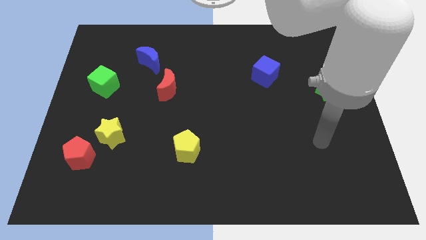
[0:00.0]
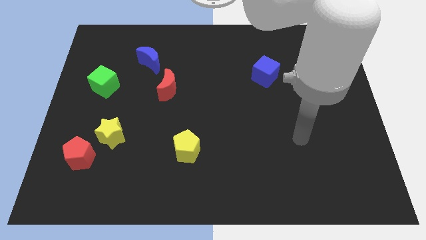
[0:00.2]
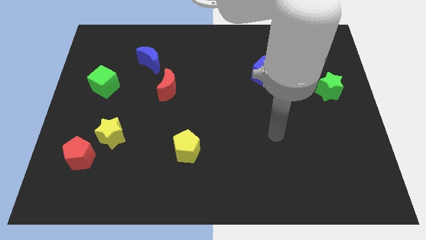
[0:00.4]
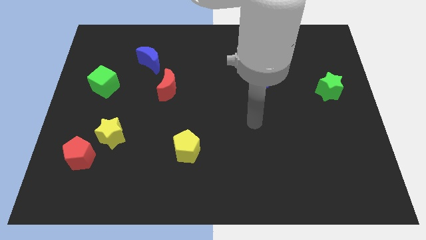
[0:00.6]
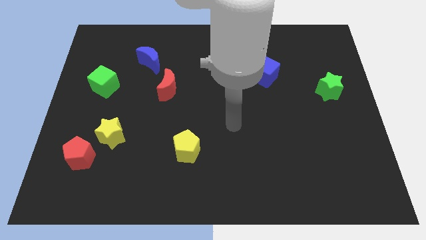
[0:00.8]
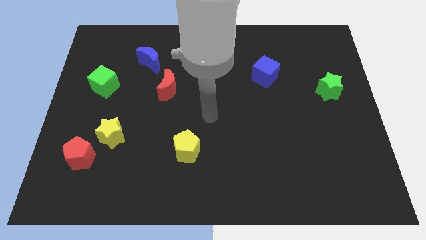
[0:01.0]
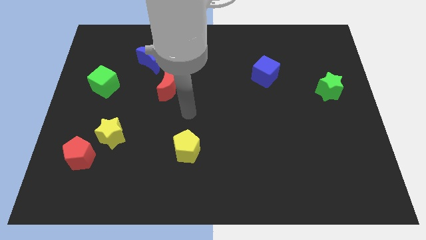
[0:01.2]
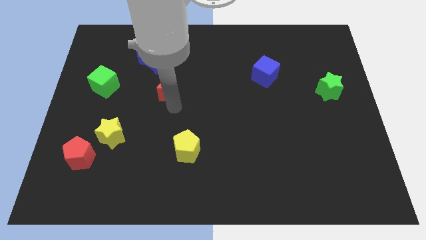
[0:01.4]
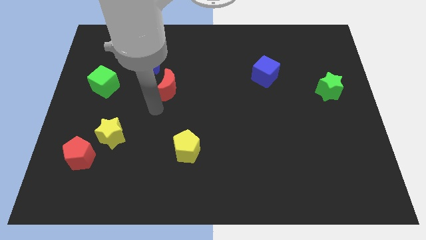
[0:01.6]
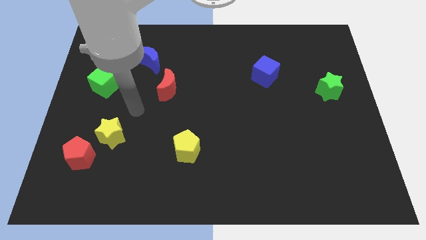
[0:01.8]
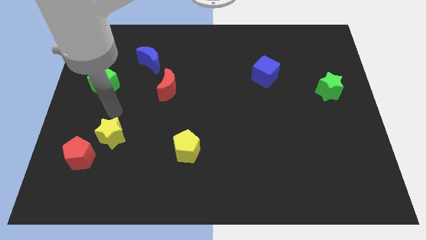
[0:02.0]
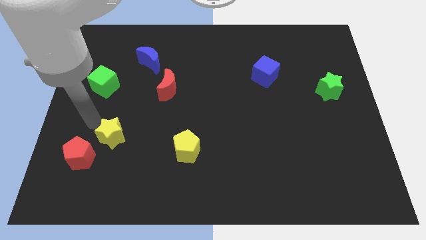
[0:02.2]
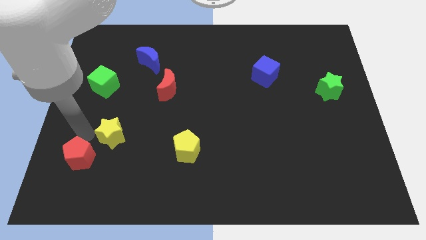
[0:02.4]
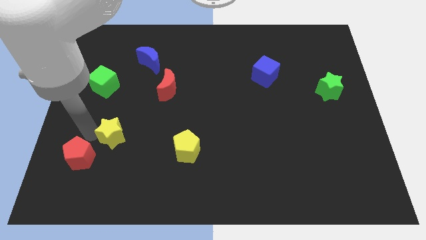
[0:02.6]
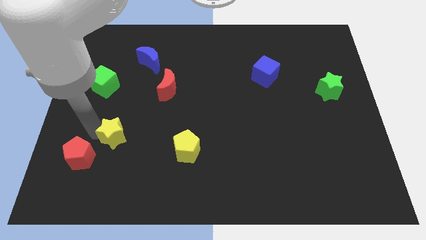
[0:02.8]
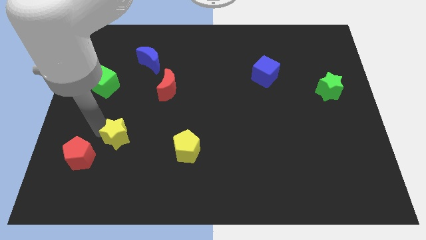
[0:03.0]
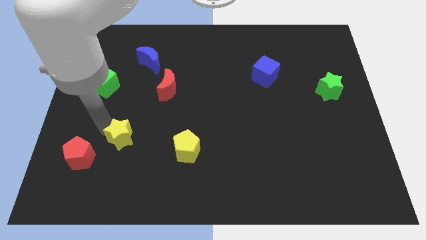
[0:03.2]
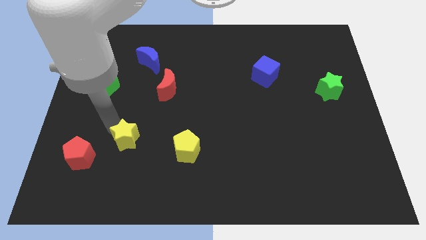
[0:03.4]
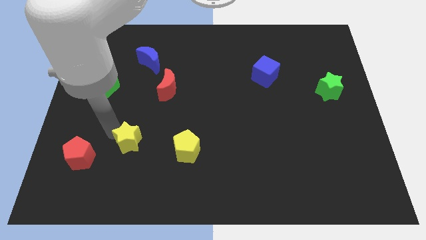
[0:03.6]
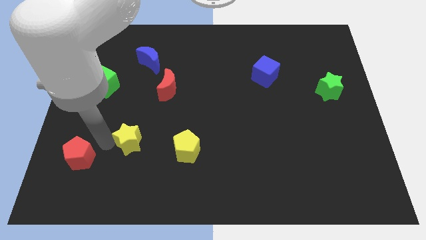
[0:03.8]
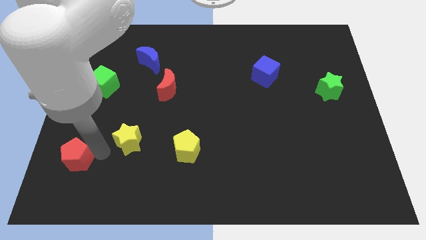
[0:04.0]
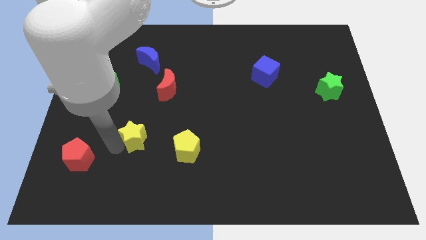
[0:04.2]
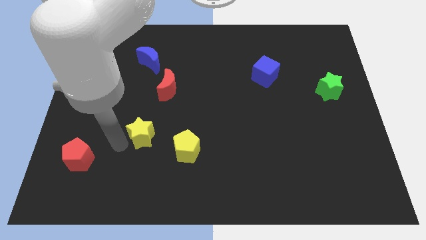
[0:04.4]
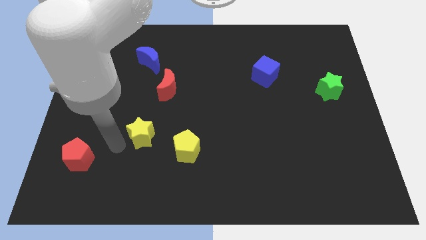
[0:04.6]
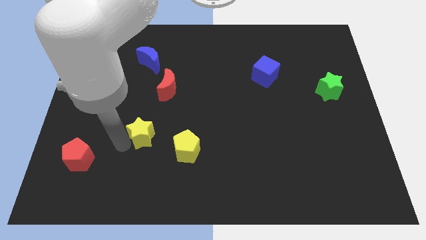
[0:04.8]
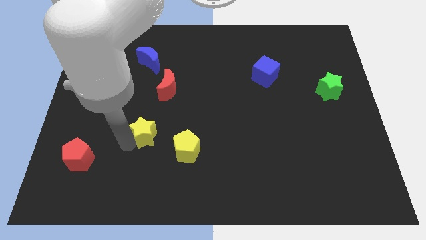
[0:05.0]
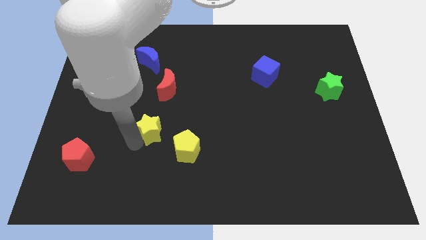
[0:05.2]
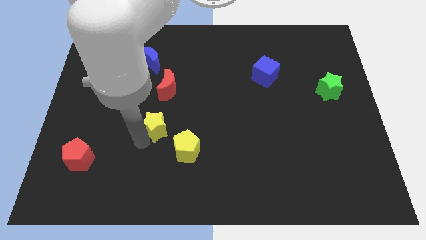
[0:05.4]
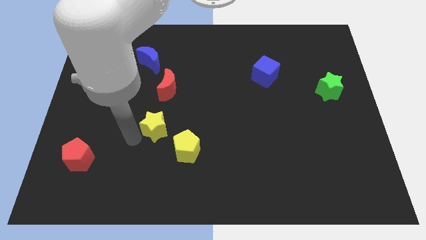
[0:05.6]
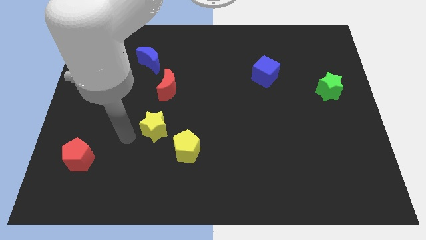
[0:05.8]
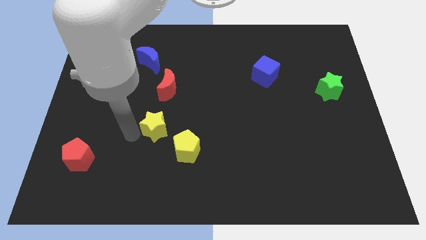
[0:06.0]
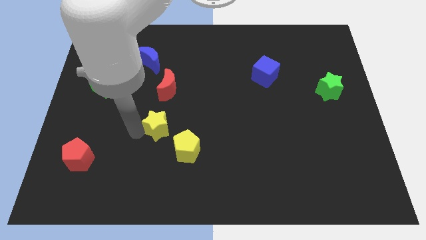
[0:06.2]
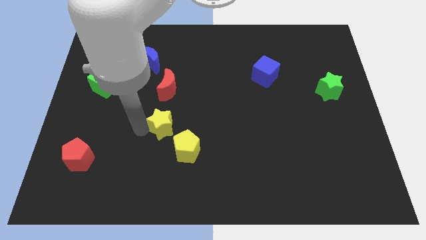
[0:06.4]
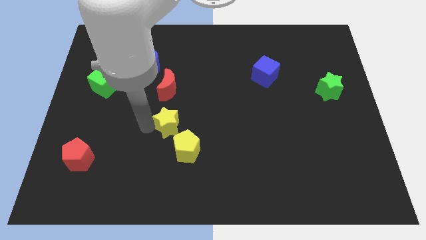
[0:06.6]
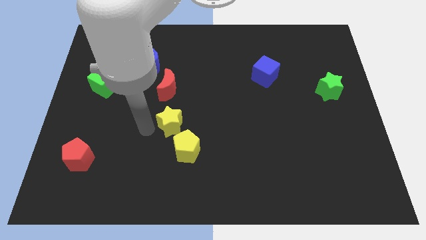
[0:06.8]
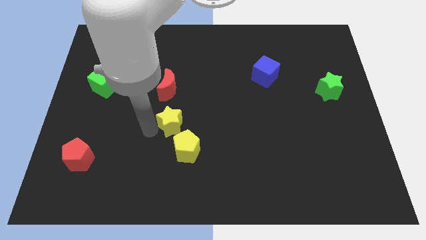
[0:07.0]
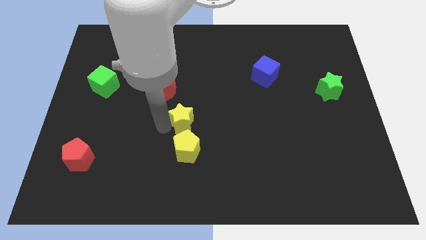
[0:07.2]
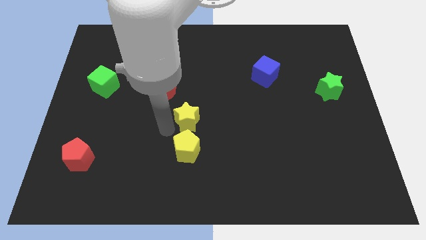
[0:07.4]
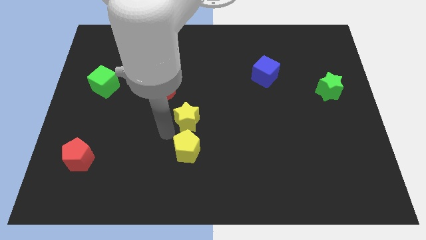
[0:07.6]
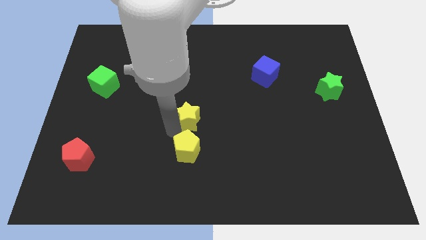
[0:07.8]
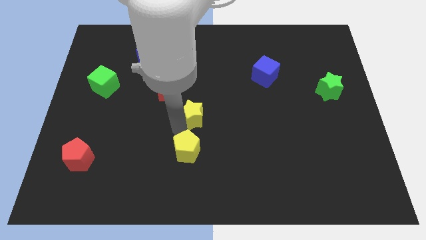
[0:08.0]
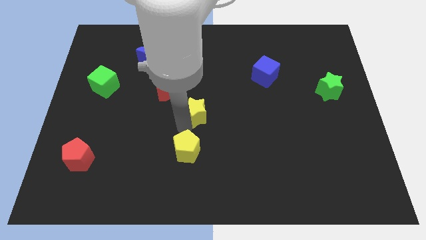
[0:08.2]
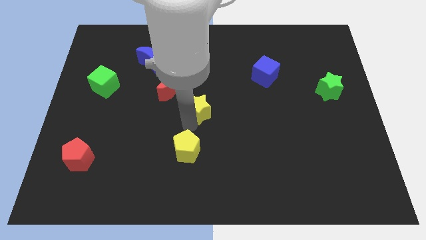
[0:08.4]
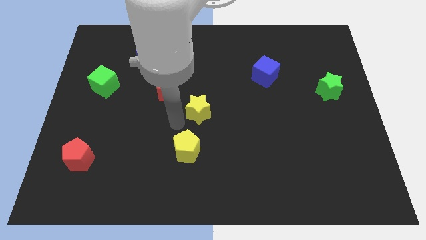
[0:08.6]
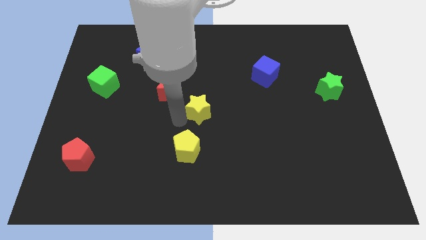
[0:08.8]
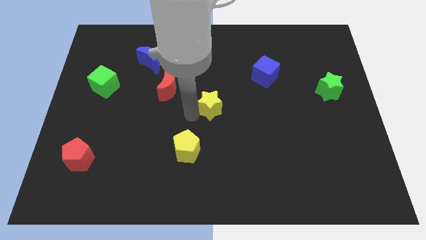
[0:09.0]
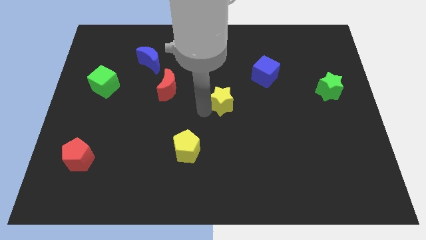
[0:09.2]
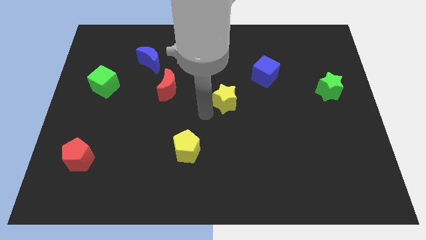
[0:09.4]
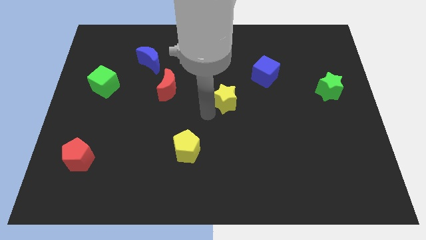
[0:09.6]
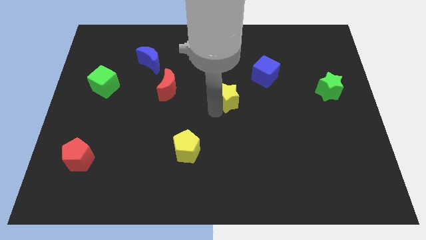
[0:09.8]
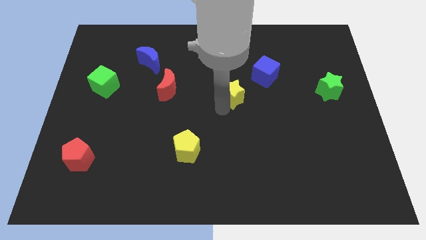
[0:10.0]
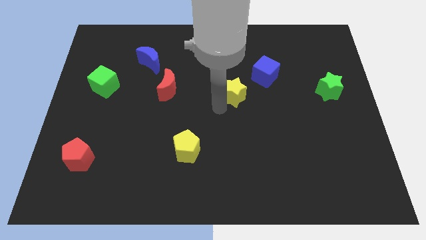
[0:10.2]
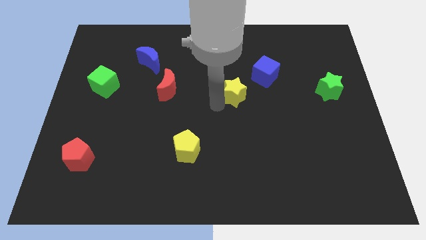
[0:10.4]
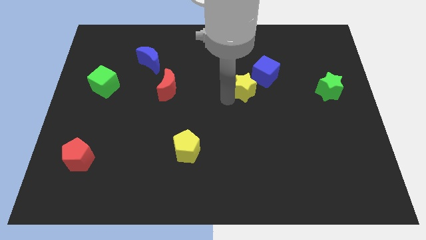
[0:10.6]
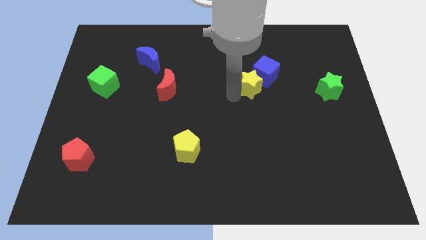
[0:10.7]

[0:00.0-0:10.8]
put the yellow star next to the blue cube

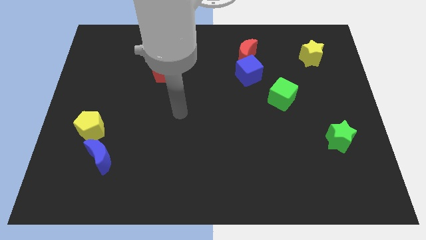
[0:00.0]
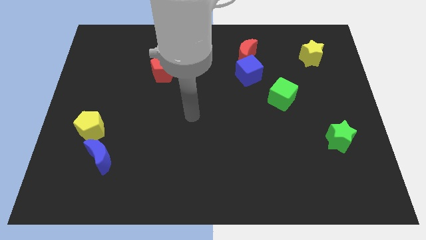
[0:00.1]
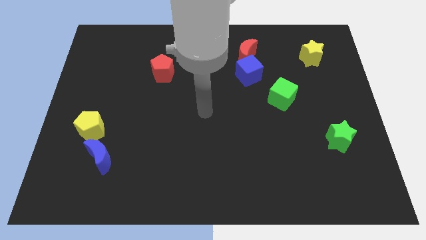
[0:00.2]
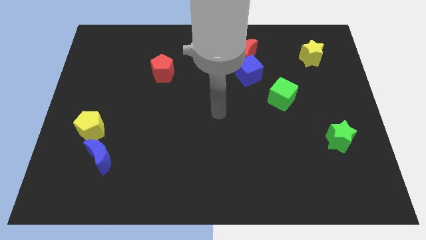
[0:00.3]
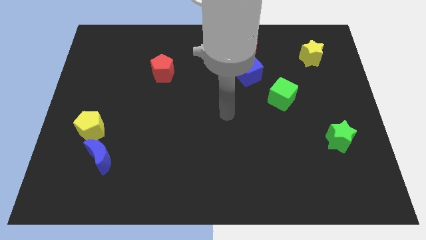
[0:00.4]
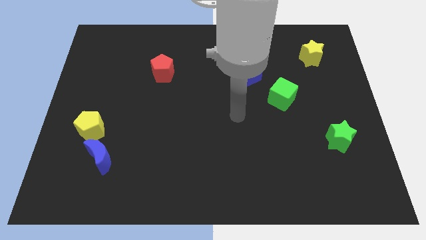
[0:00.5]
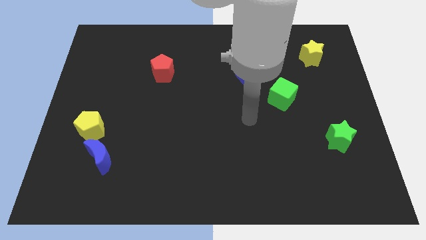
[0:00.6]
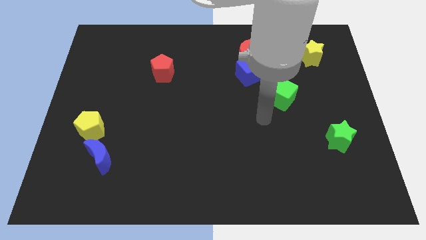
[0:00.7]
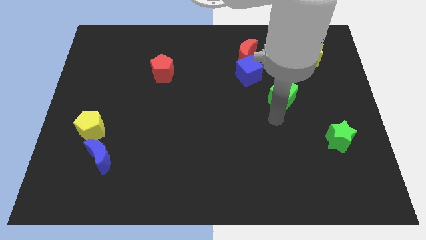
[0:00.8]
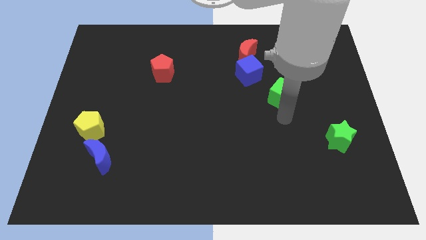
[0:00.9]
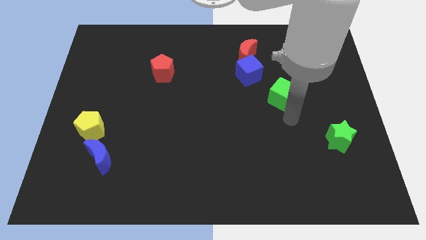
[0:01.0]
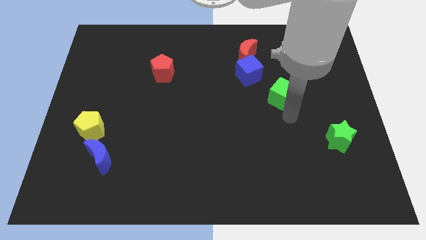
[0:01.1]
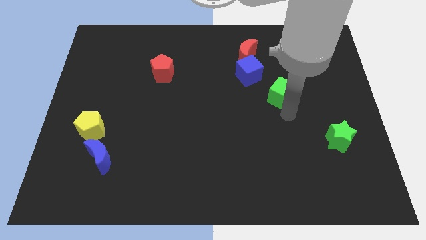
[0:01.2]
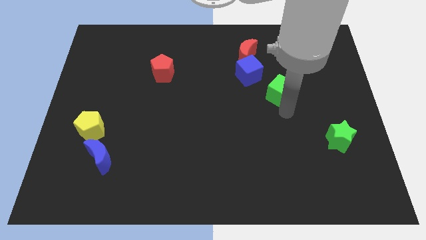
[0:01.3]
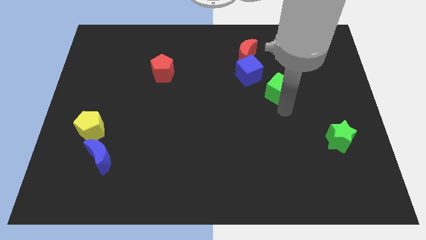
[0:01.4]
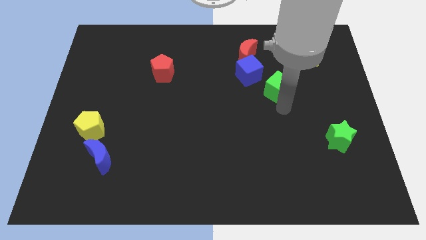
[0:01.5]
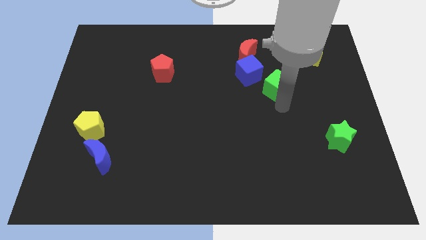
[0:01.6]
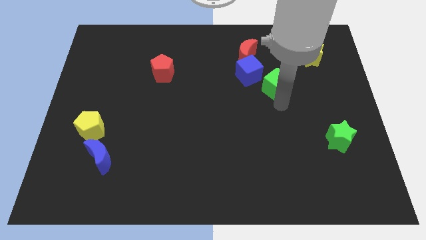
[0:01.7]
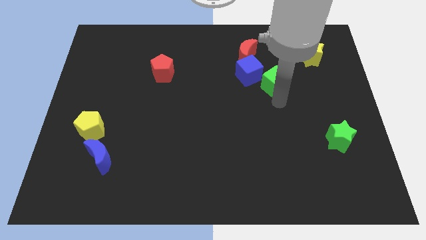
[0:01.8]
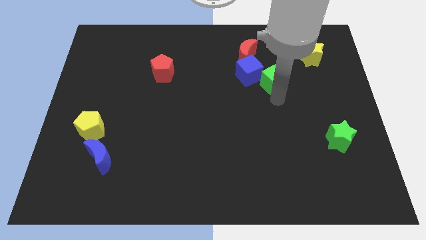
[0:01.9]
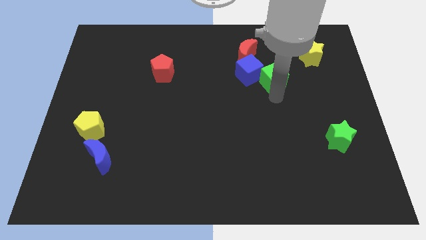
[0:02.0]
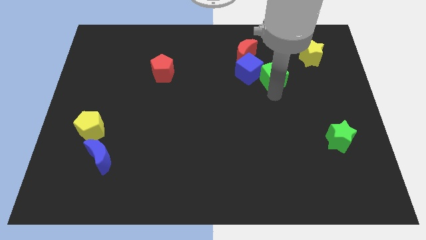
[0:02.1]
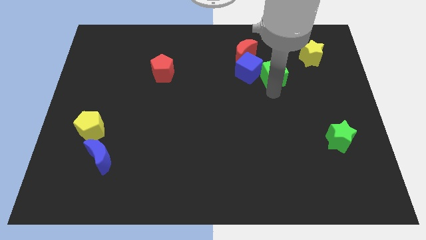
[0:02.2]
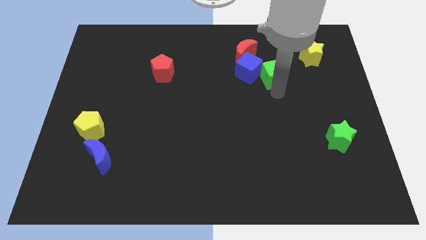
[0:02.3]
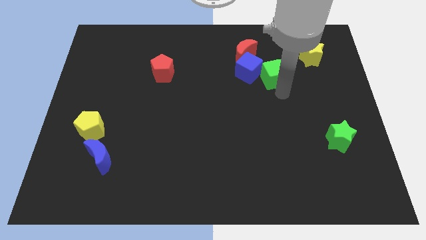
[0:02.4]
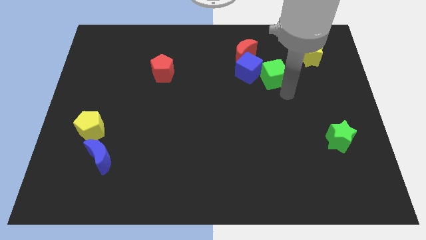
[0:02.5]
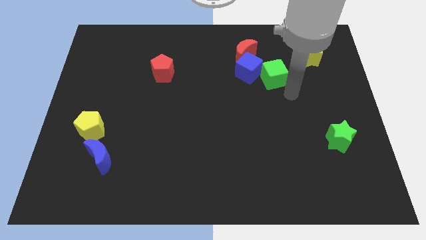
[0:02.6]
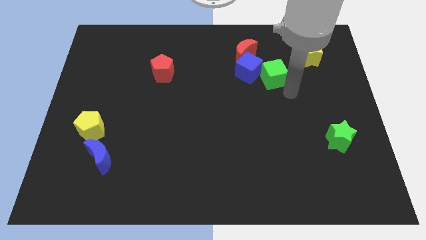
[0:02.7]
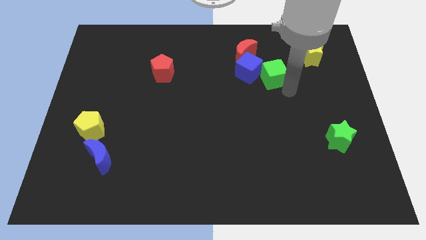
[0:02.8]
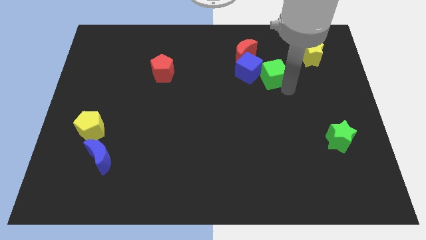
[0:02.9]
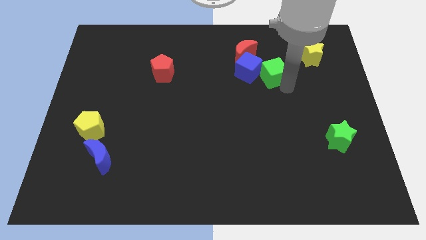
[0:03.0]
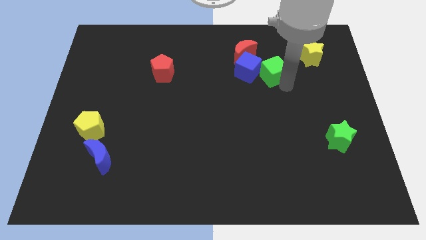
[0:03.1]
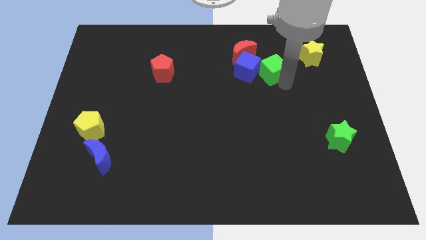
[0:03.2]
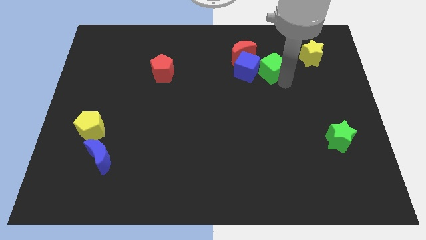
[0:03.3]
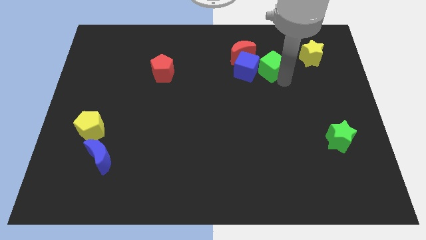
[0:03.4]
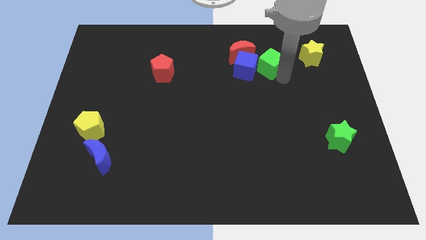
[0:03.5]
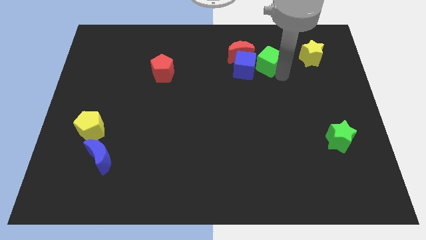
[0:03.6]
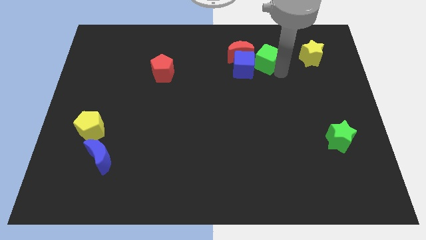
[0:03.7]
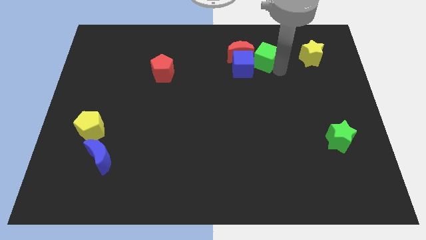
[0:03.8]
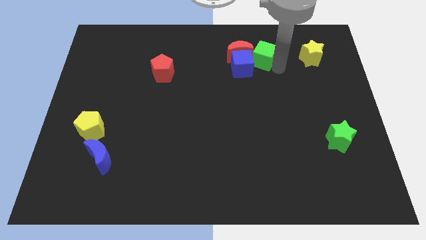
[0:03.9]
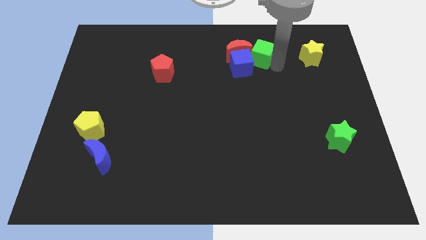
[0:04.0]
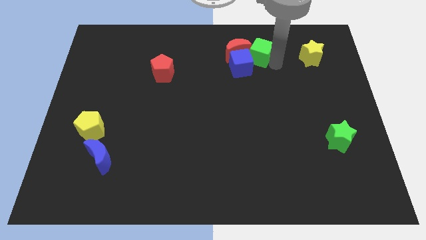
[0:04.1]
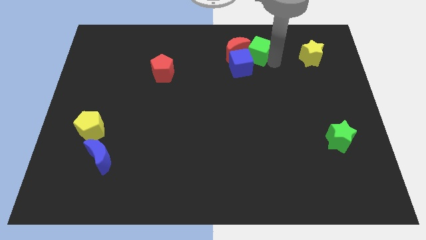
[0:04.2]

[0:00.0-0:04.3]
push the green cube to the red moon
